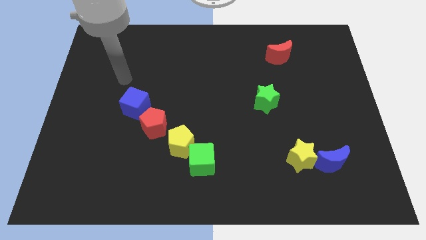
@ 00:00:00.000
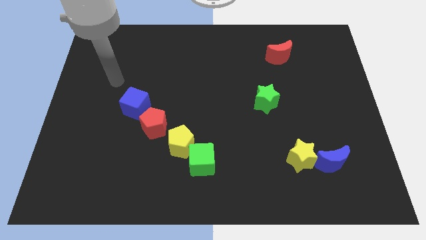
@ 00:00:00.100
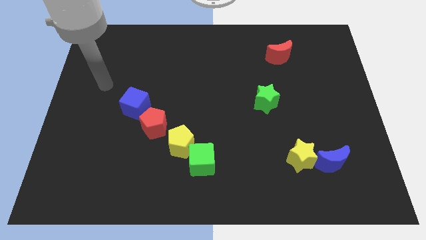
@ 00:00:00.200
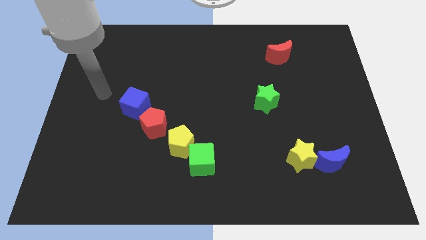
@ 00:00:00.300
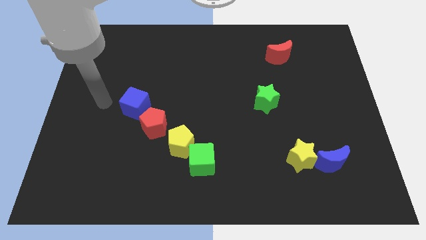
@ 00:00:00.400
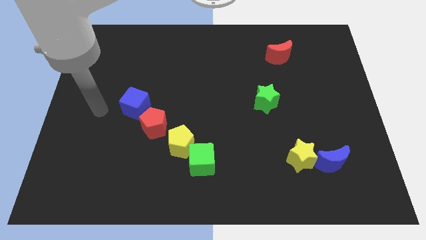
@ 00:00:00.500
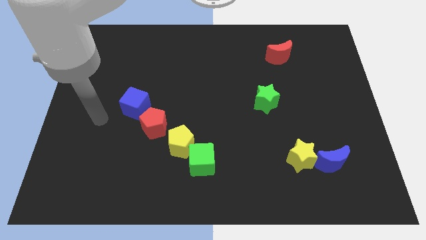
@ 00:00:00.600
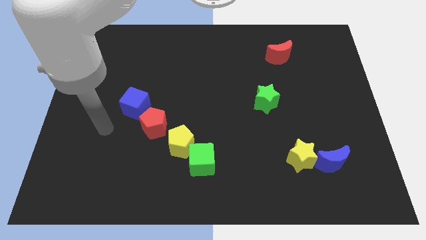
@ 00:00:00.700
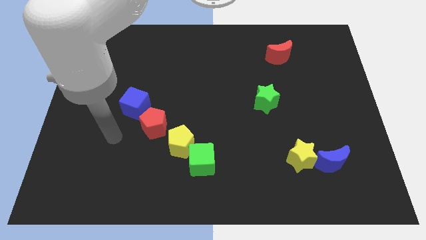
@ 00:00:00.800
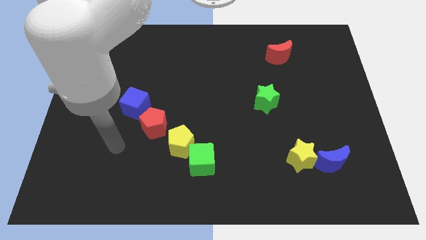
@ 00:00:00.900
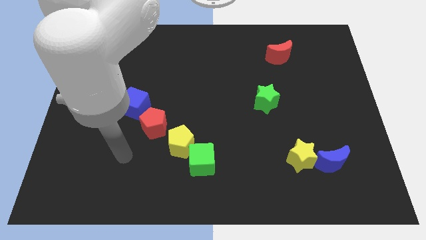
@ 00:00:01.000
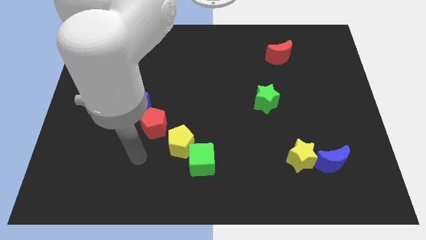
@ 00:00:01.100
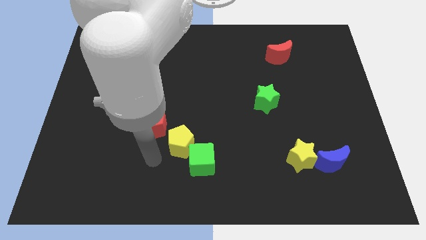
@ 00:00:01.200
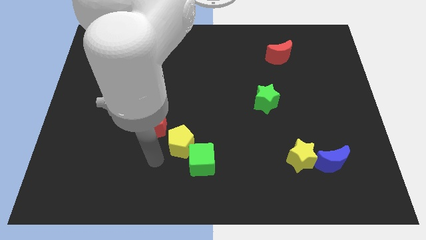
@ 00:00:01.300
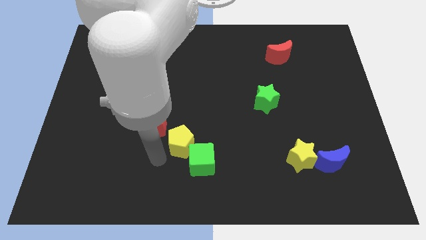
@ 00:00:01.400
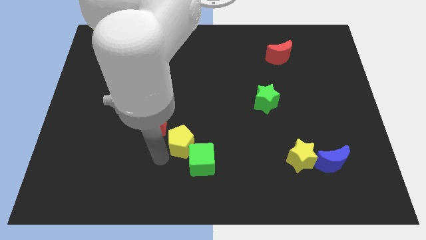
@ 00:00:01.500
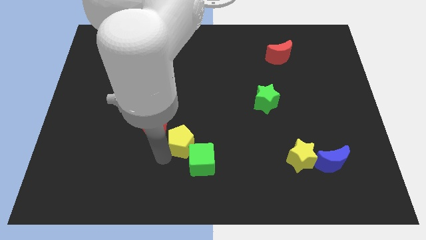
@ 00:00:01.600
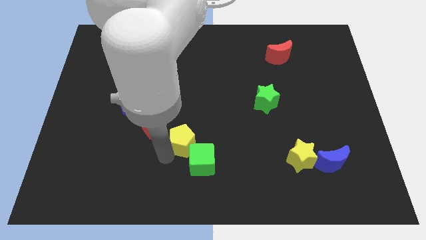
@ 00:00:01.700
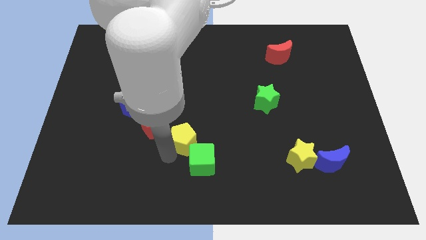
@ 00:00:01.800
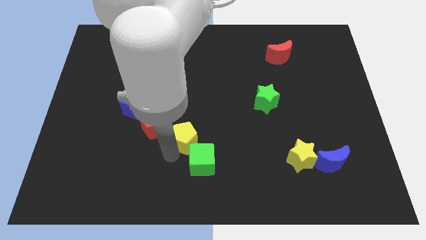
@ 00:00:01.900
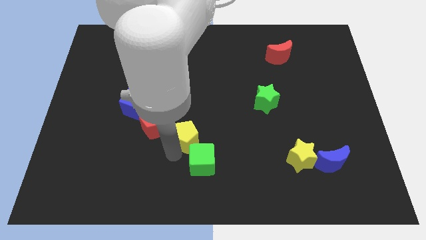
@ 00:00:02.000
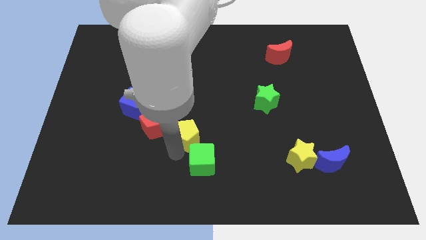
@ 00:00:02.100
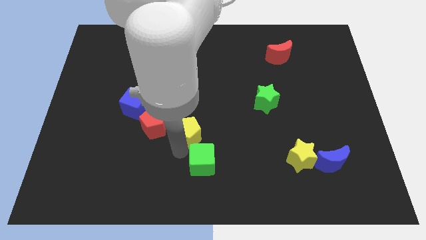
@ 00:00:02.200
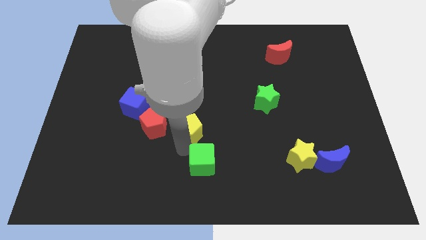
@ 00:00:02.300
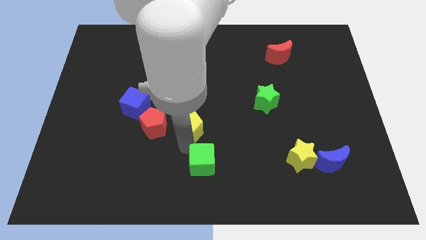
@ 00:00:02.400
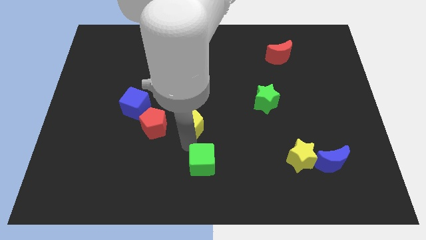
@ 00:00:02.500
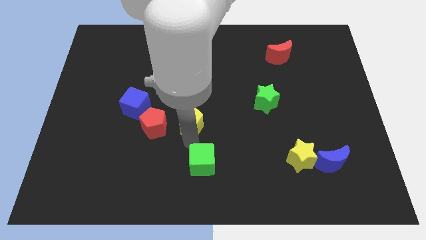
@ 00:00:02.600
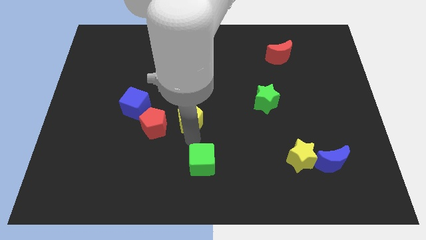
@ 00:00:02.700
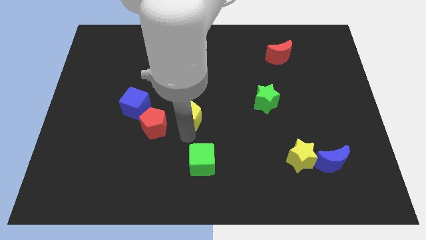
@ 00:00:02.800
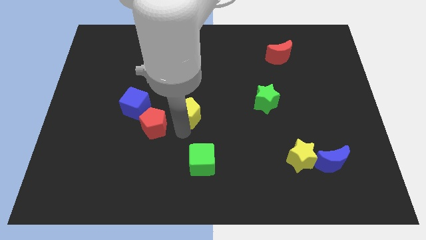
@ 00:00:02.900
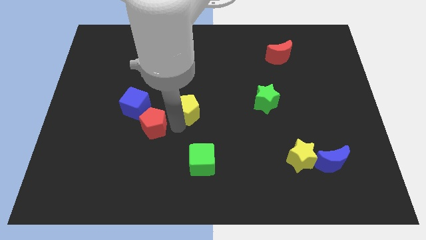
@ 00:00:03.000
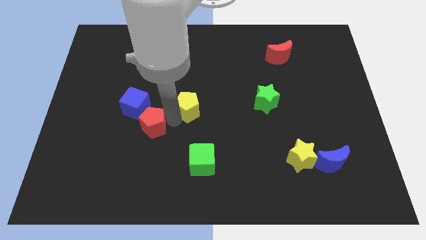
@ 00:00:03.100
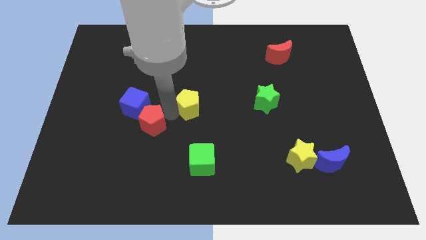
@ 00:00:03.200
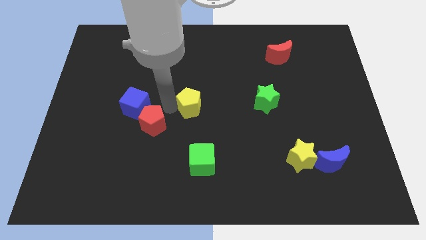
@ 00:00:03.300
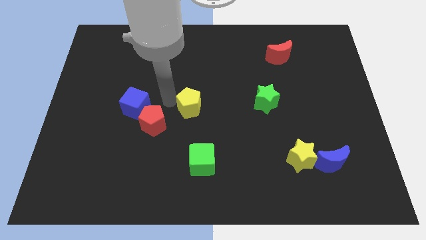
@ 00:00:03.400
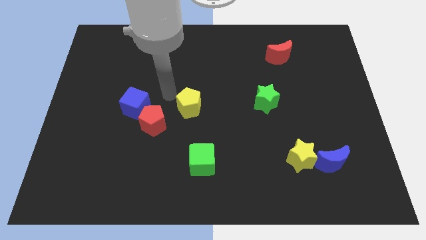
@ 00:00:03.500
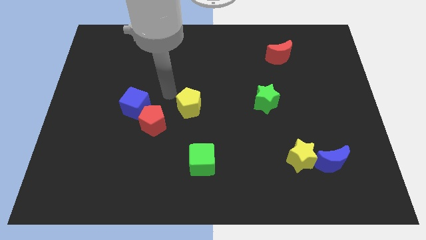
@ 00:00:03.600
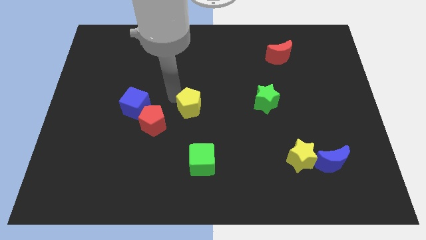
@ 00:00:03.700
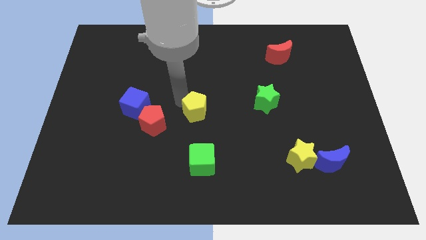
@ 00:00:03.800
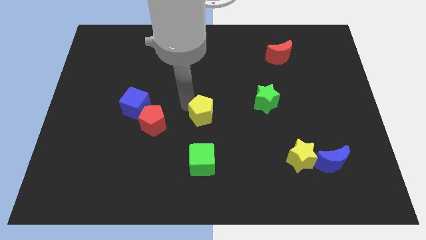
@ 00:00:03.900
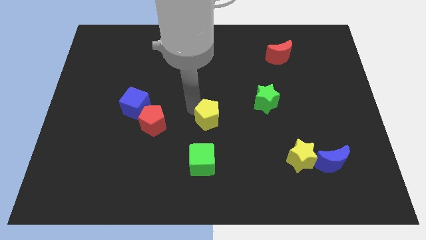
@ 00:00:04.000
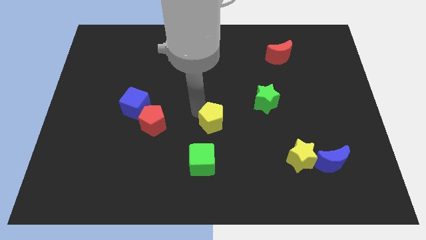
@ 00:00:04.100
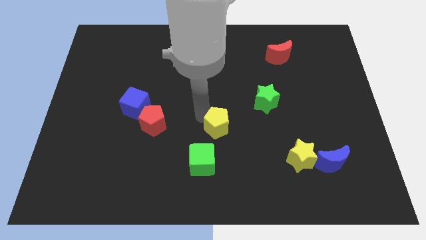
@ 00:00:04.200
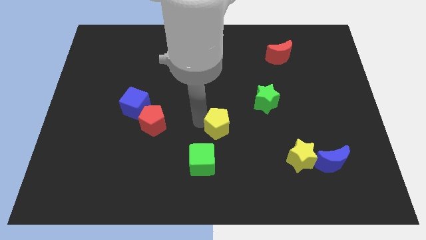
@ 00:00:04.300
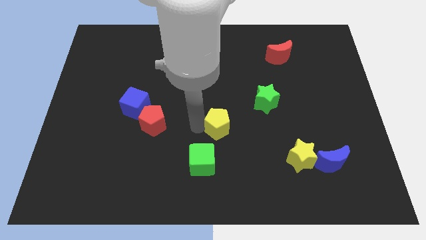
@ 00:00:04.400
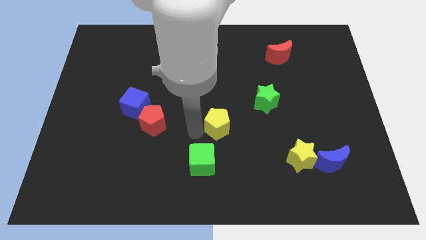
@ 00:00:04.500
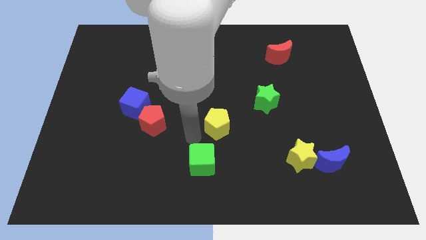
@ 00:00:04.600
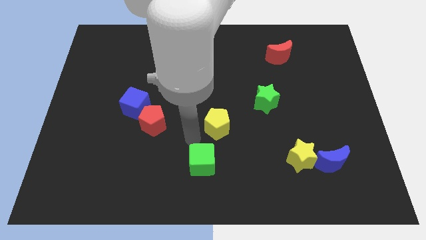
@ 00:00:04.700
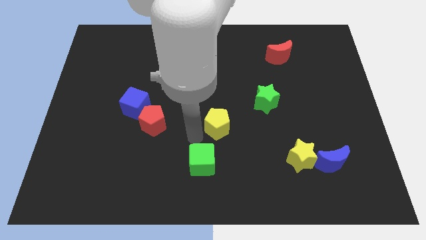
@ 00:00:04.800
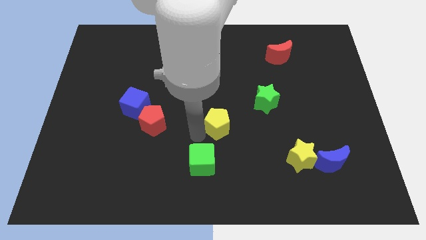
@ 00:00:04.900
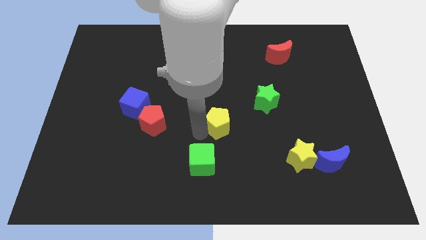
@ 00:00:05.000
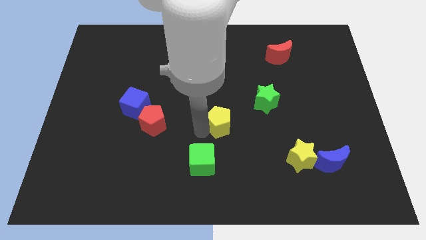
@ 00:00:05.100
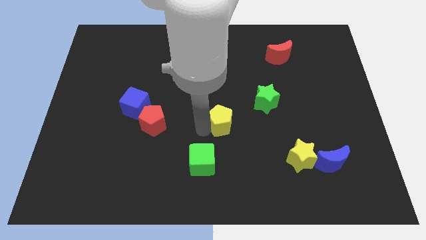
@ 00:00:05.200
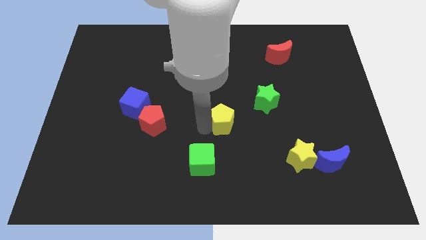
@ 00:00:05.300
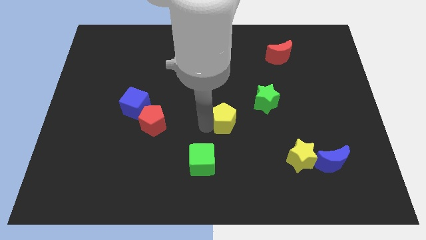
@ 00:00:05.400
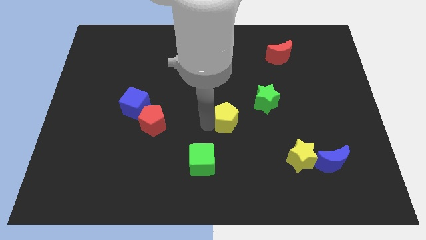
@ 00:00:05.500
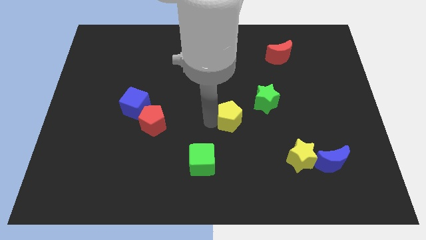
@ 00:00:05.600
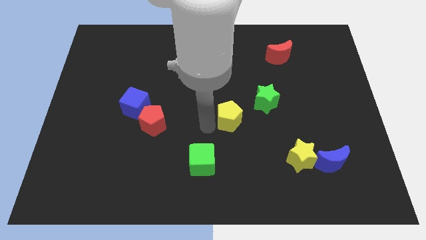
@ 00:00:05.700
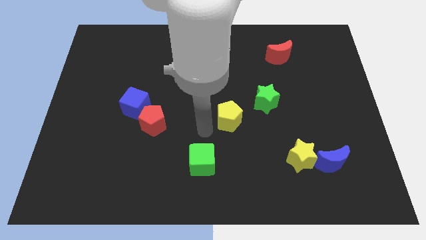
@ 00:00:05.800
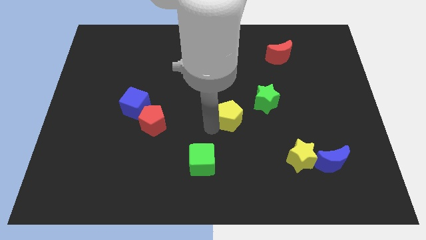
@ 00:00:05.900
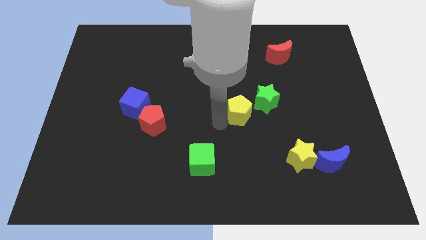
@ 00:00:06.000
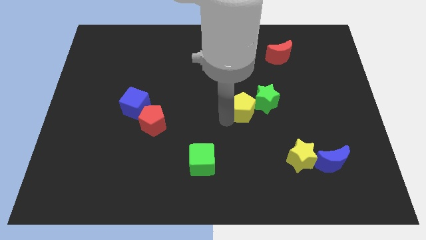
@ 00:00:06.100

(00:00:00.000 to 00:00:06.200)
put the yellow pentagon close to the green star

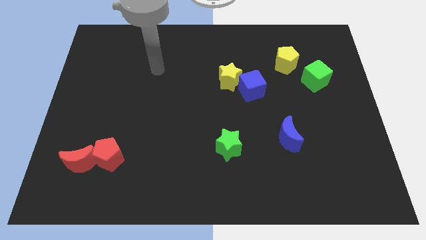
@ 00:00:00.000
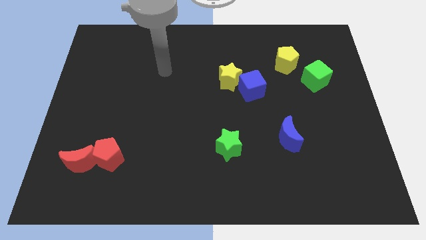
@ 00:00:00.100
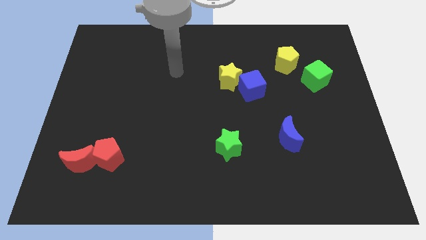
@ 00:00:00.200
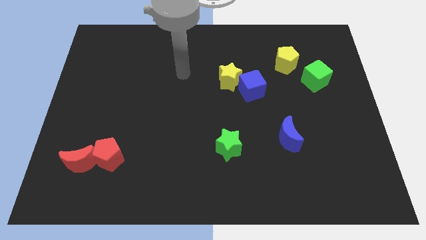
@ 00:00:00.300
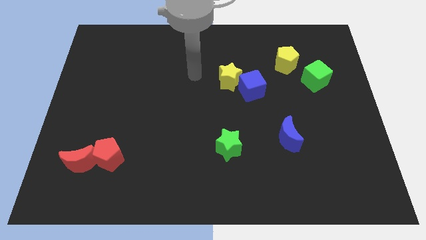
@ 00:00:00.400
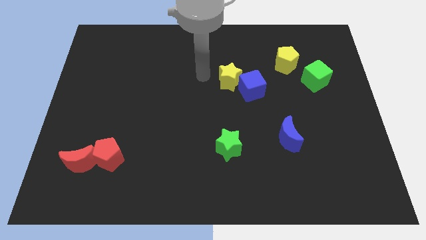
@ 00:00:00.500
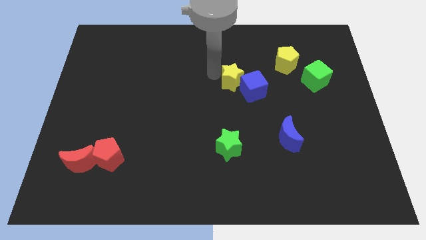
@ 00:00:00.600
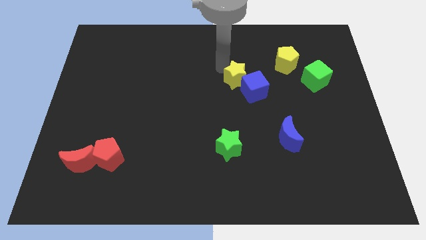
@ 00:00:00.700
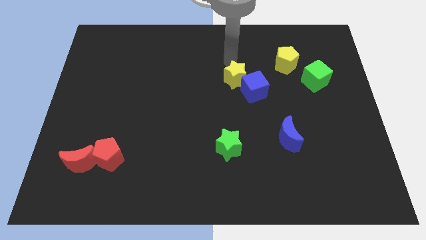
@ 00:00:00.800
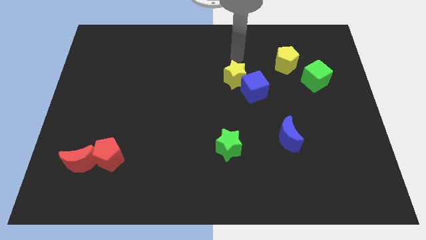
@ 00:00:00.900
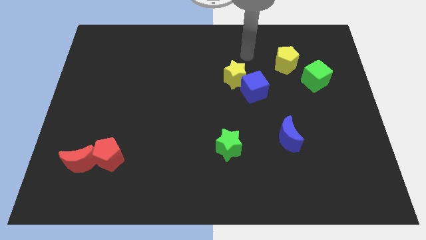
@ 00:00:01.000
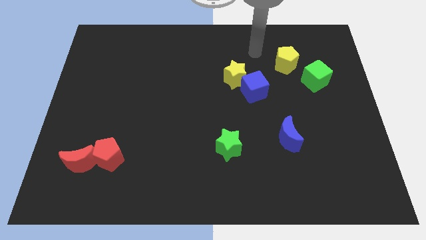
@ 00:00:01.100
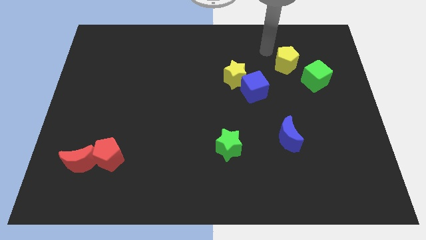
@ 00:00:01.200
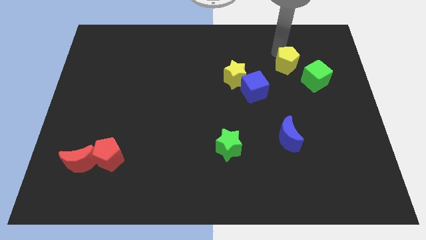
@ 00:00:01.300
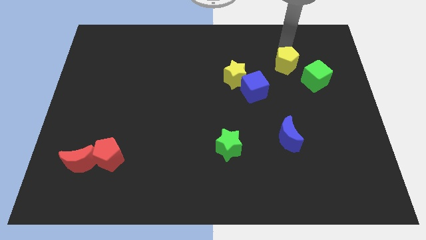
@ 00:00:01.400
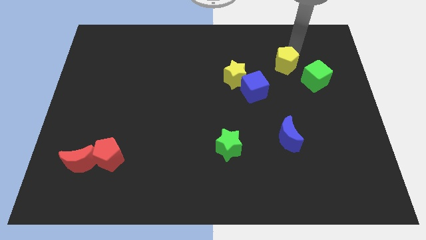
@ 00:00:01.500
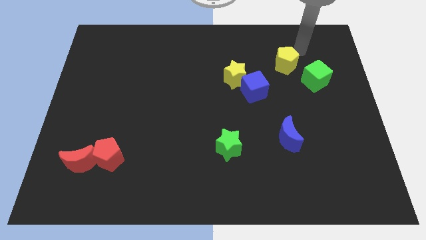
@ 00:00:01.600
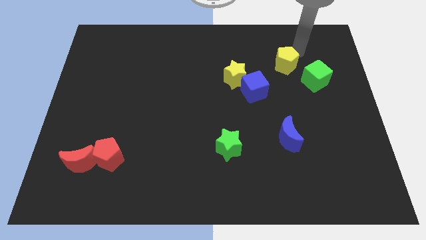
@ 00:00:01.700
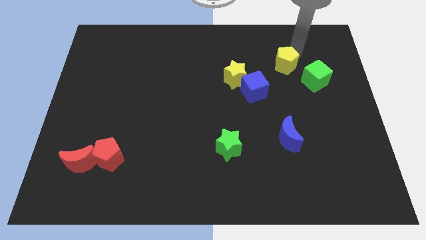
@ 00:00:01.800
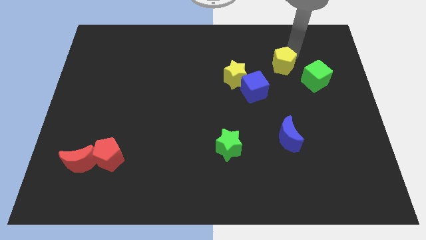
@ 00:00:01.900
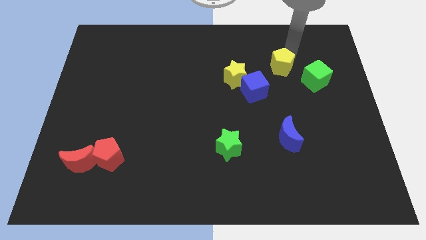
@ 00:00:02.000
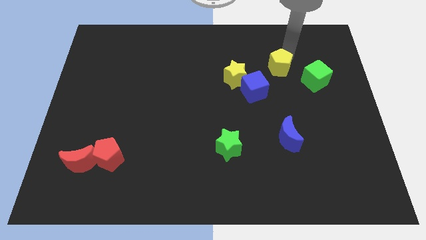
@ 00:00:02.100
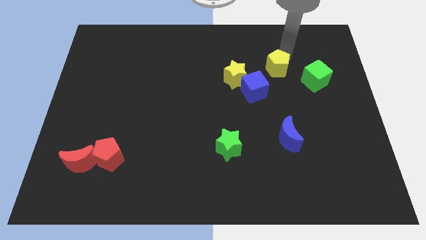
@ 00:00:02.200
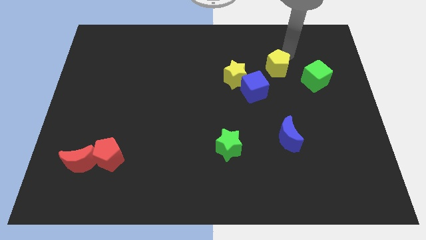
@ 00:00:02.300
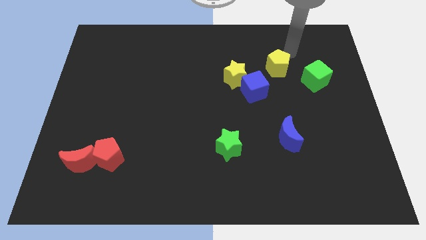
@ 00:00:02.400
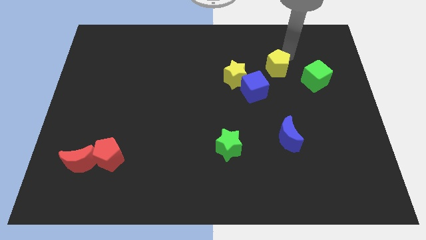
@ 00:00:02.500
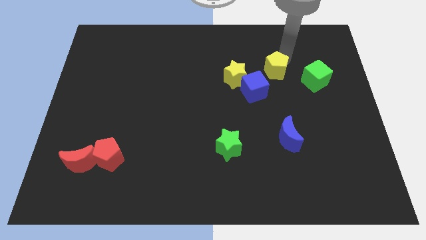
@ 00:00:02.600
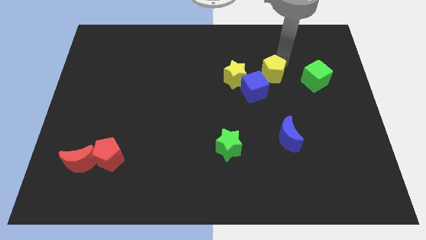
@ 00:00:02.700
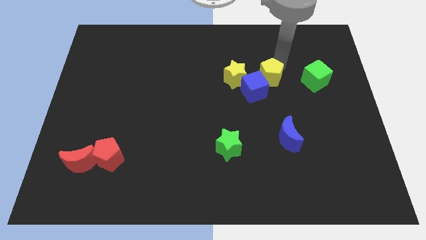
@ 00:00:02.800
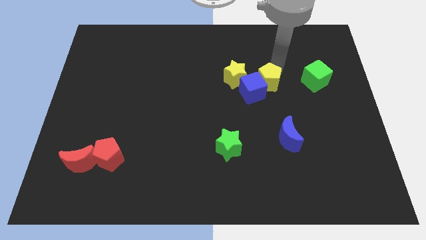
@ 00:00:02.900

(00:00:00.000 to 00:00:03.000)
move the yellow pentagon next to the blue cube
